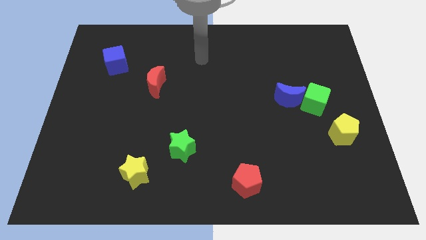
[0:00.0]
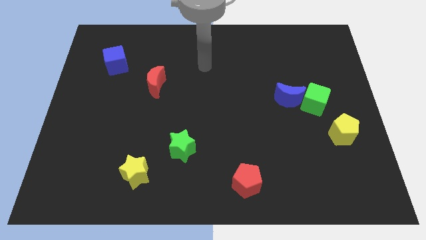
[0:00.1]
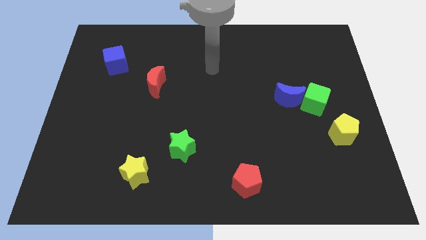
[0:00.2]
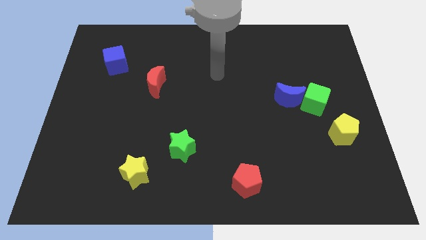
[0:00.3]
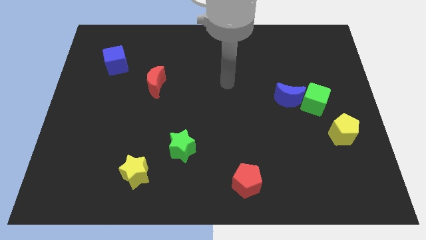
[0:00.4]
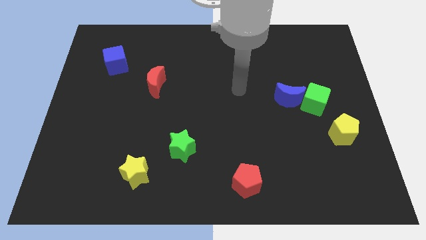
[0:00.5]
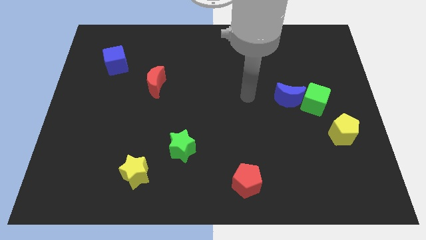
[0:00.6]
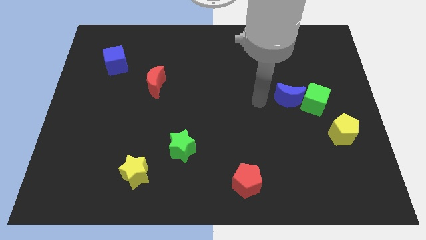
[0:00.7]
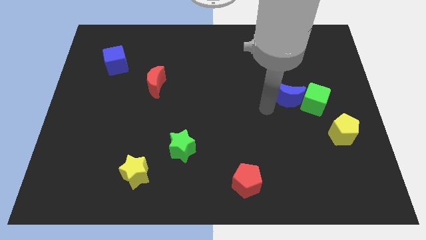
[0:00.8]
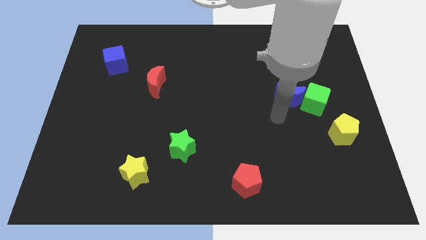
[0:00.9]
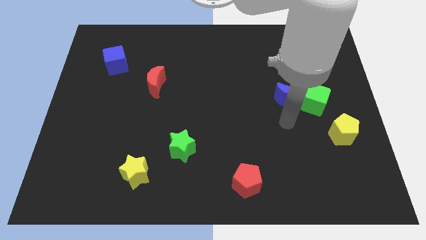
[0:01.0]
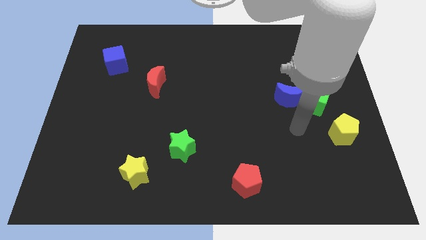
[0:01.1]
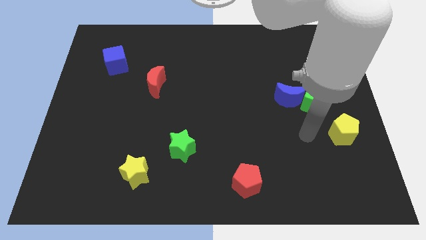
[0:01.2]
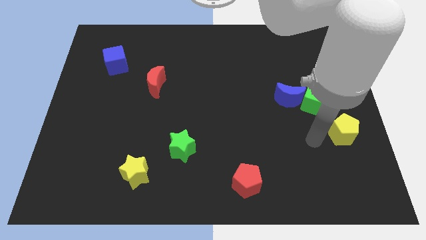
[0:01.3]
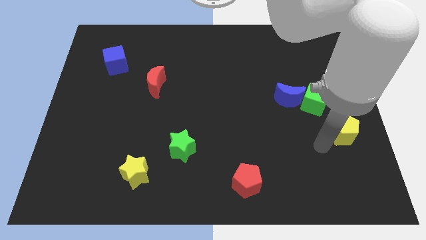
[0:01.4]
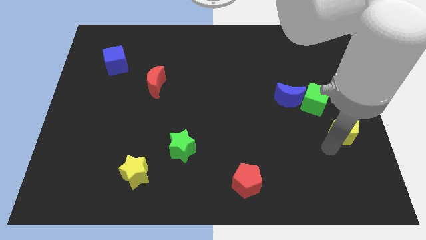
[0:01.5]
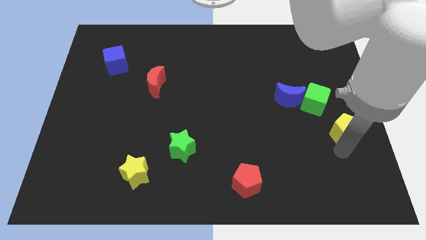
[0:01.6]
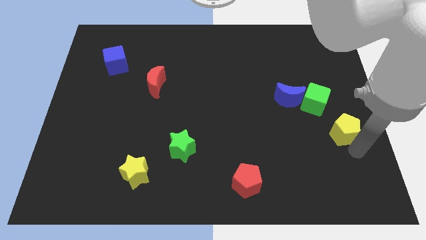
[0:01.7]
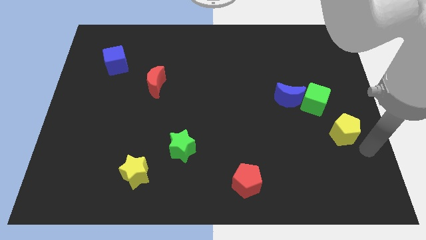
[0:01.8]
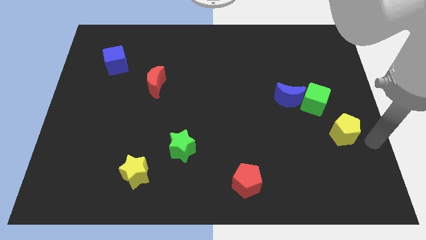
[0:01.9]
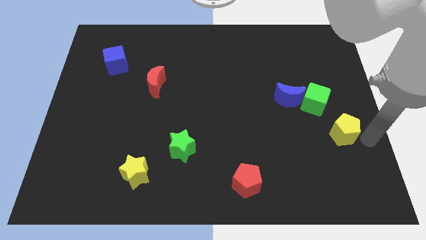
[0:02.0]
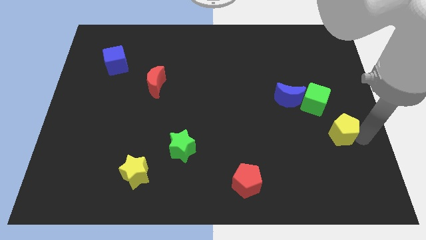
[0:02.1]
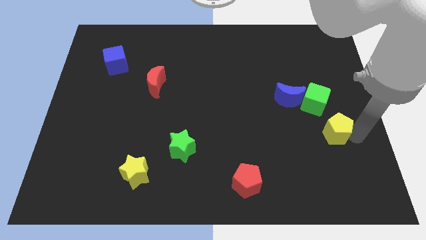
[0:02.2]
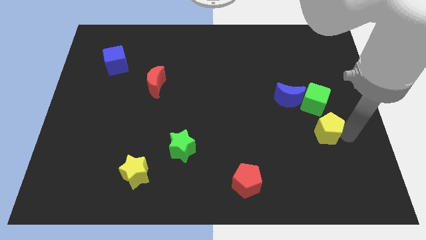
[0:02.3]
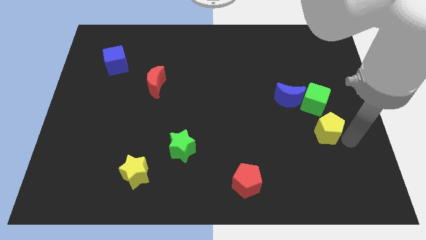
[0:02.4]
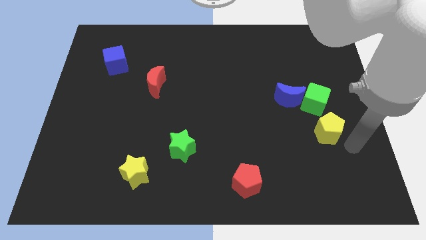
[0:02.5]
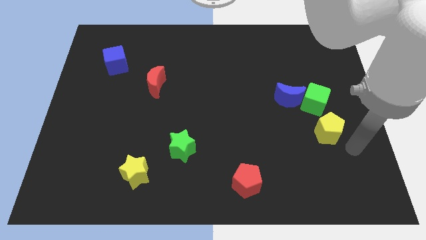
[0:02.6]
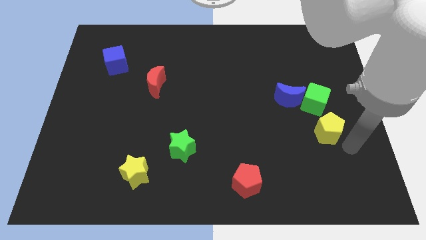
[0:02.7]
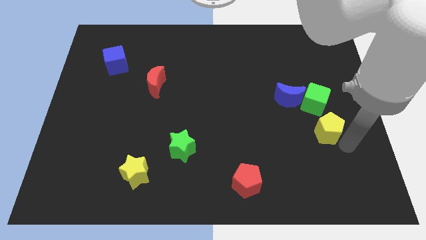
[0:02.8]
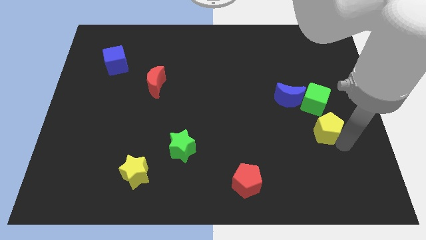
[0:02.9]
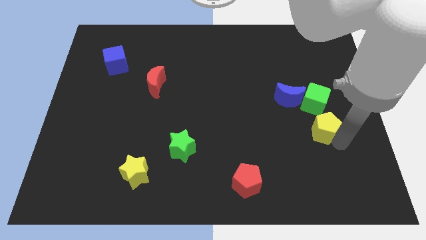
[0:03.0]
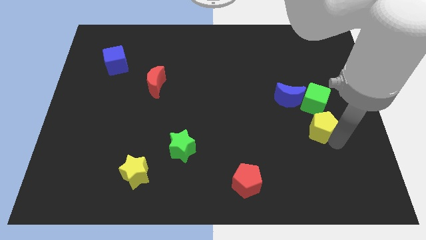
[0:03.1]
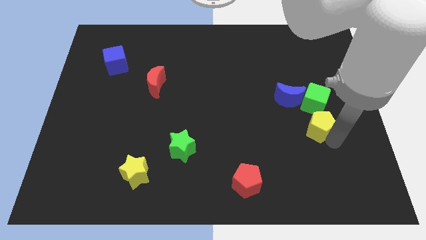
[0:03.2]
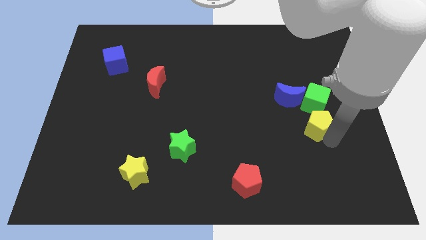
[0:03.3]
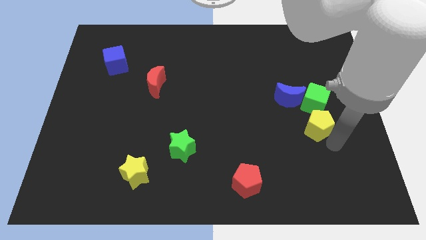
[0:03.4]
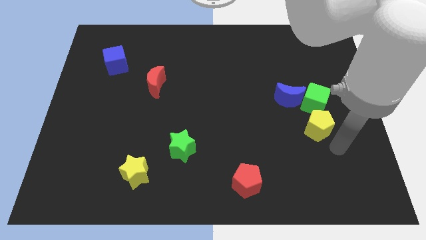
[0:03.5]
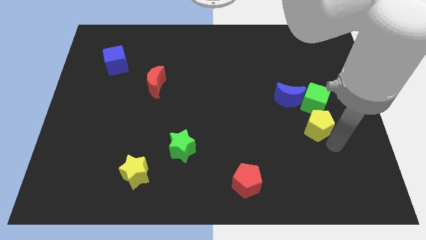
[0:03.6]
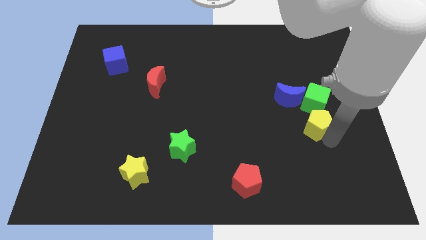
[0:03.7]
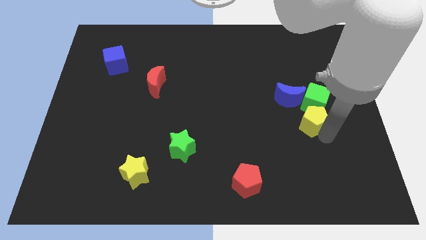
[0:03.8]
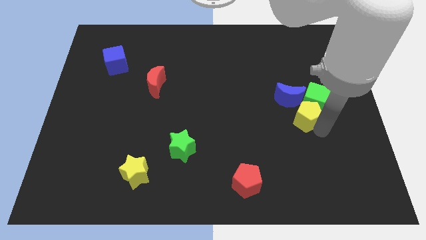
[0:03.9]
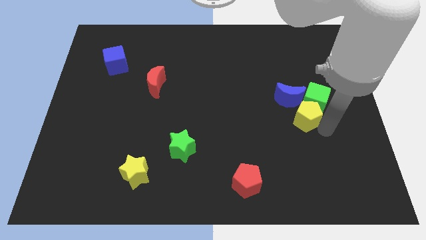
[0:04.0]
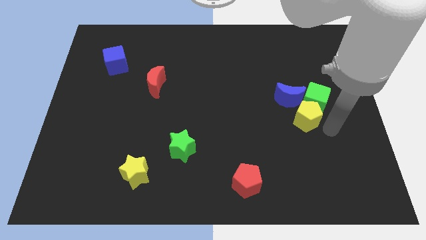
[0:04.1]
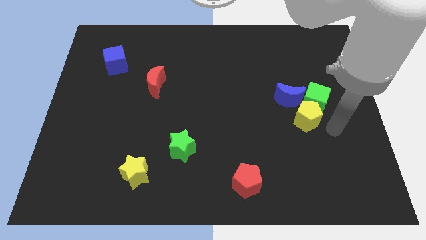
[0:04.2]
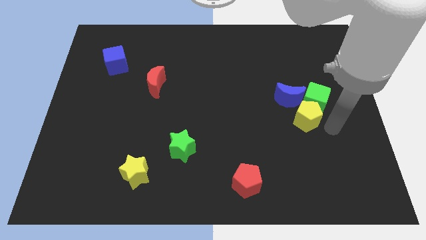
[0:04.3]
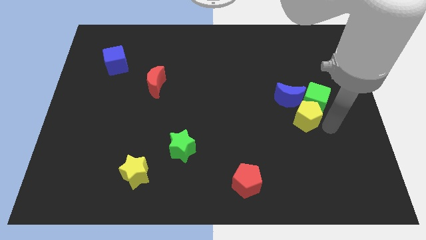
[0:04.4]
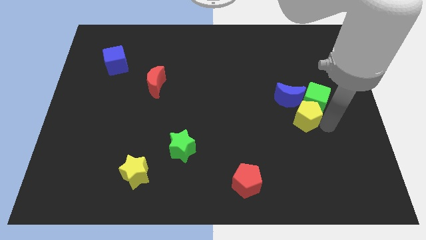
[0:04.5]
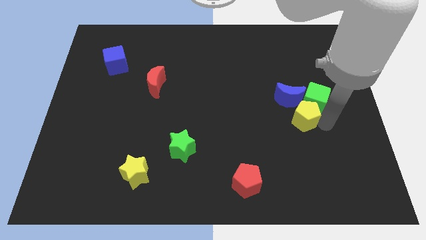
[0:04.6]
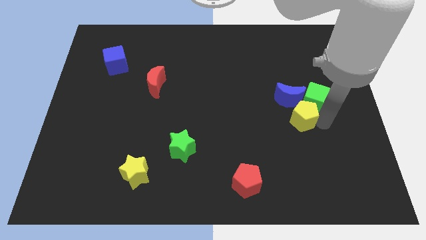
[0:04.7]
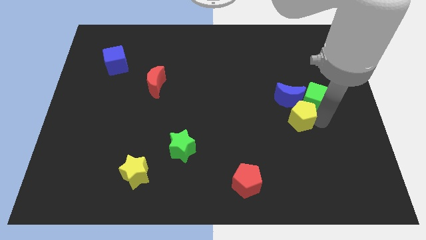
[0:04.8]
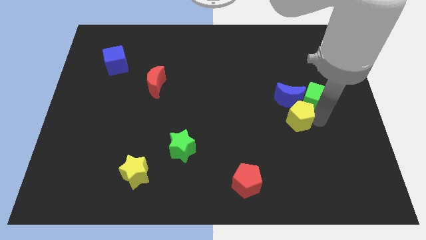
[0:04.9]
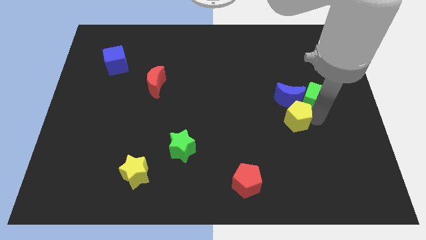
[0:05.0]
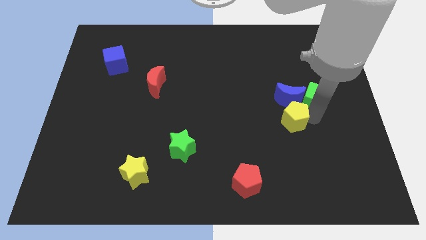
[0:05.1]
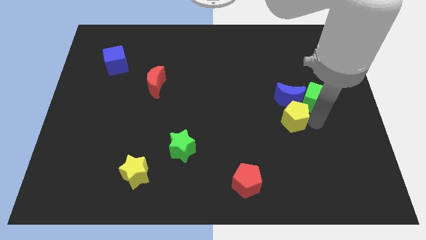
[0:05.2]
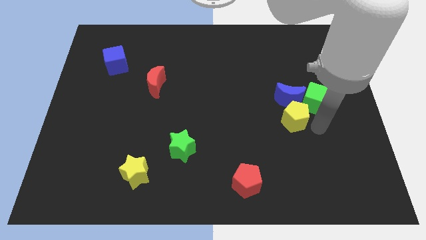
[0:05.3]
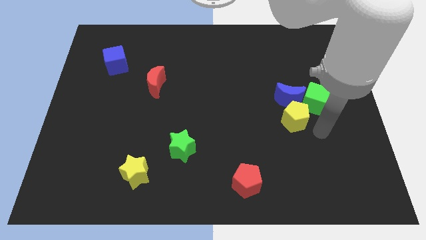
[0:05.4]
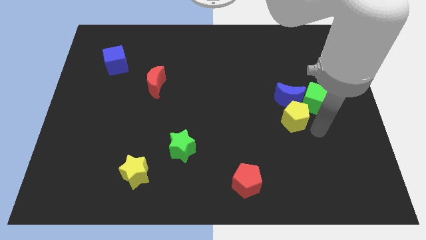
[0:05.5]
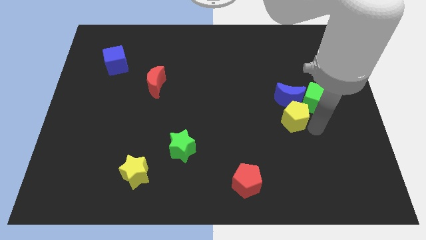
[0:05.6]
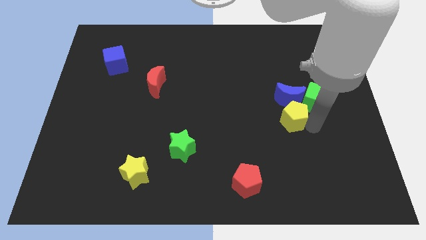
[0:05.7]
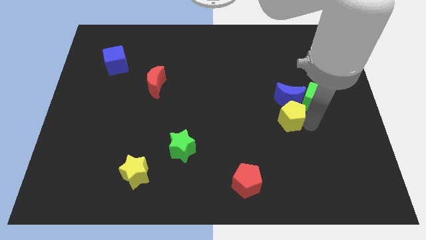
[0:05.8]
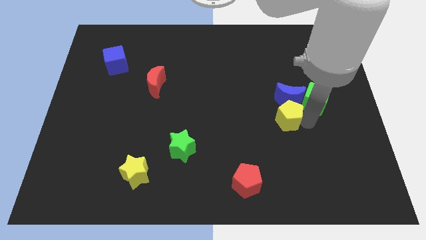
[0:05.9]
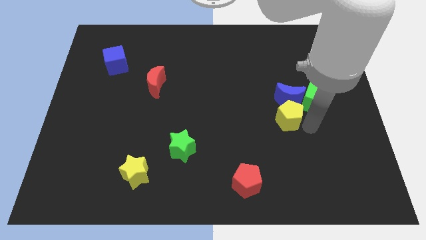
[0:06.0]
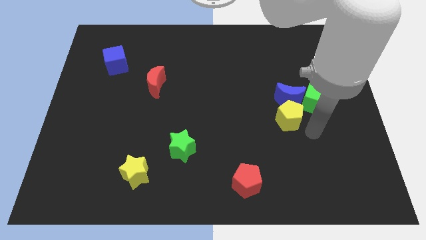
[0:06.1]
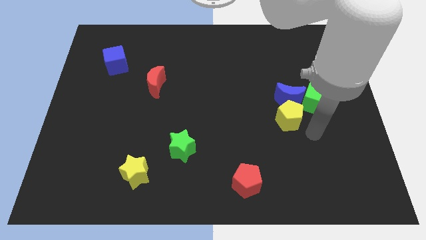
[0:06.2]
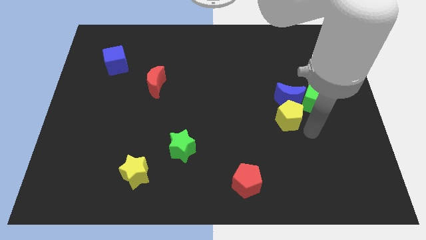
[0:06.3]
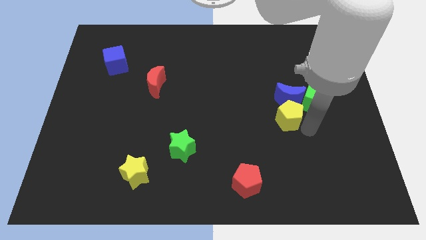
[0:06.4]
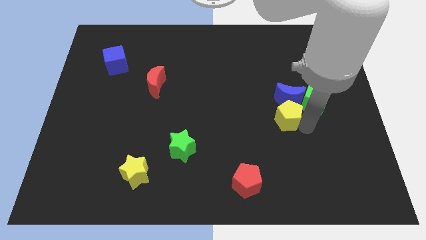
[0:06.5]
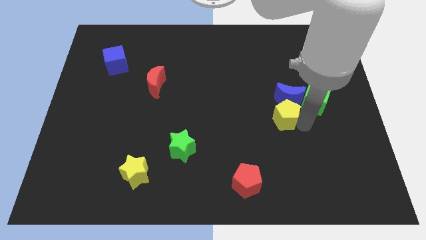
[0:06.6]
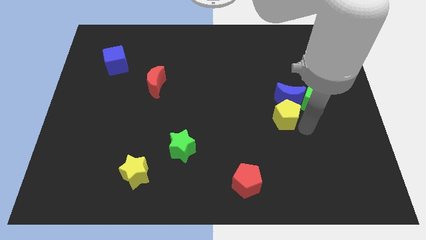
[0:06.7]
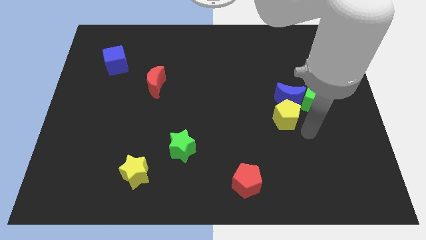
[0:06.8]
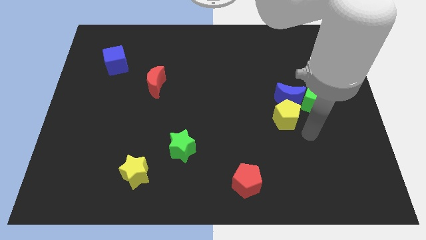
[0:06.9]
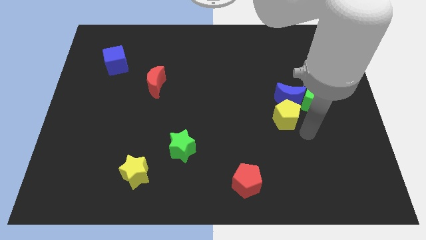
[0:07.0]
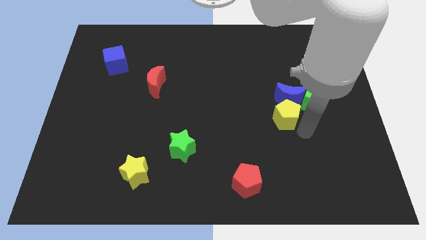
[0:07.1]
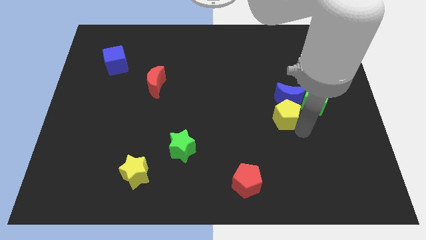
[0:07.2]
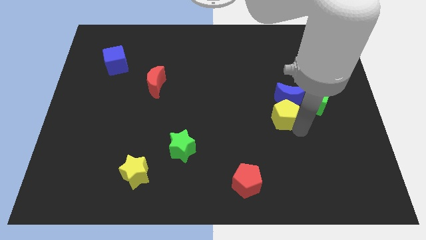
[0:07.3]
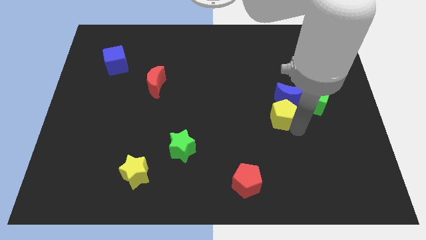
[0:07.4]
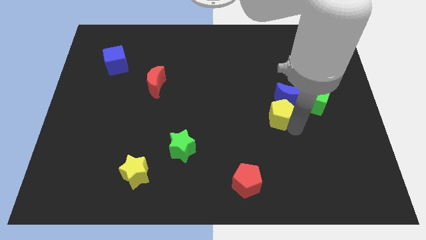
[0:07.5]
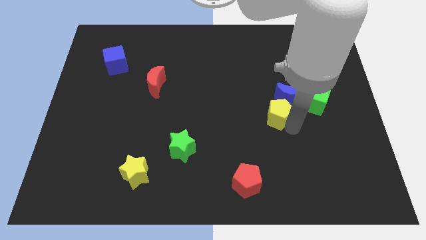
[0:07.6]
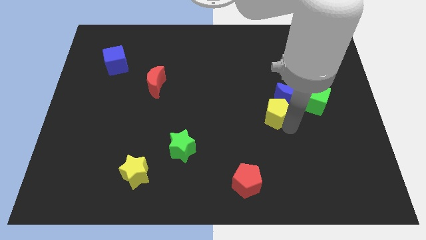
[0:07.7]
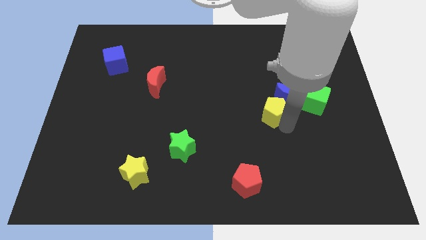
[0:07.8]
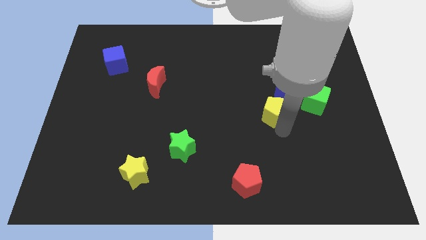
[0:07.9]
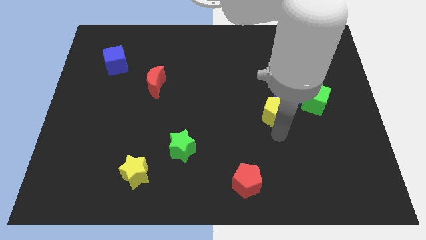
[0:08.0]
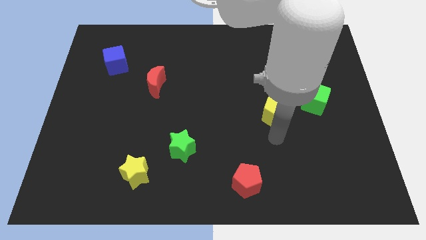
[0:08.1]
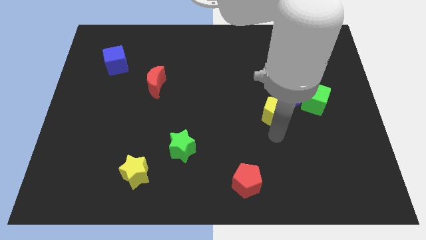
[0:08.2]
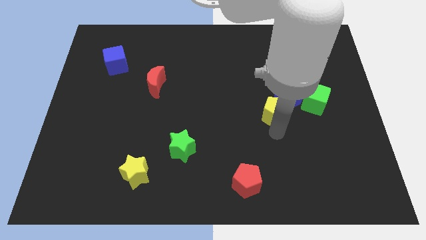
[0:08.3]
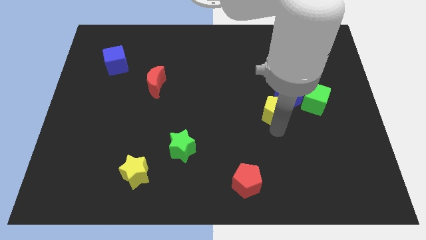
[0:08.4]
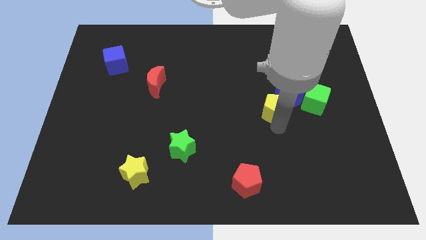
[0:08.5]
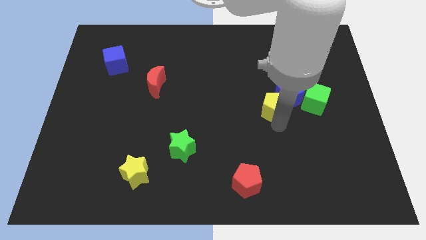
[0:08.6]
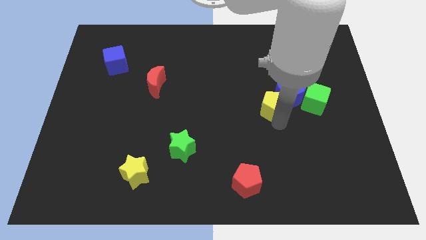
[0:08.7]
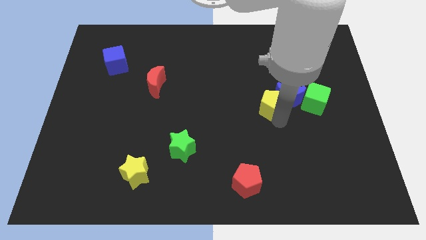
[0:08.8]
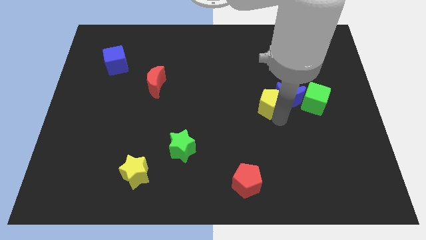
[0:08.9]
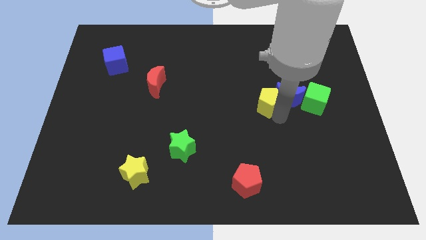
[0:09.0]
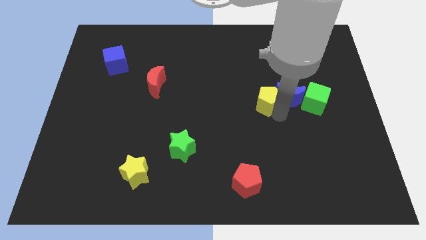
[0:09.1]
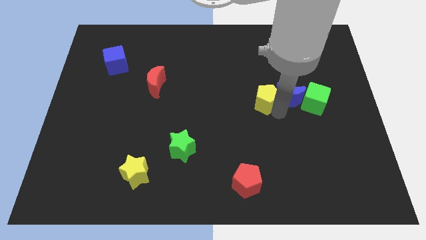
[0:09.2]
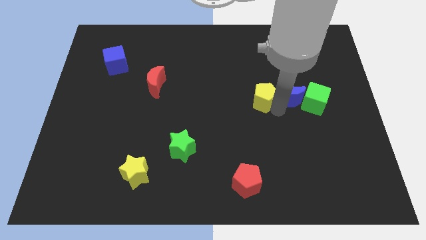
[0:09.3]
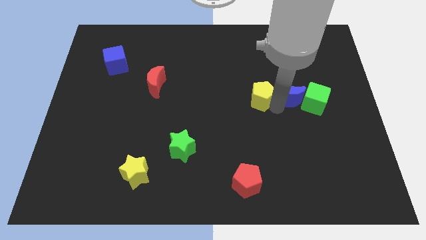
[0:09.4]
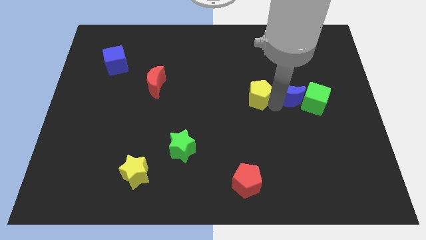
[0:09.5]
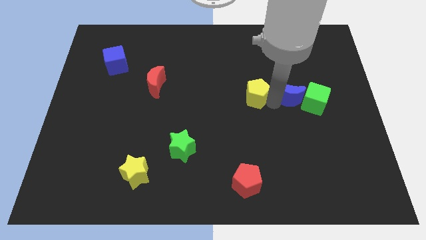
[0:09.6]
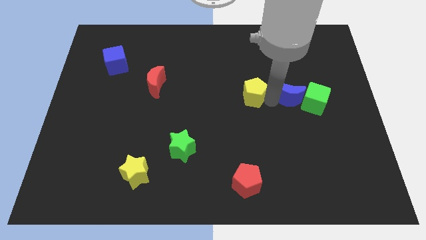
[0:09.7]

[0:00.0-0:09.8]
slide the yellow pentagon up and left
